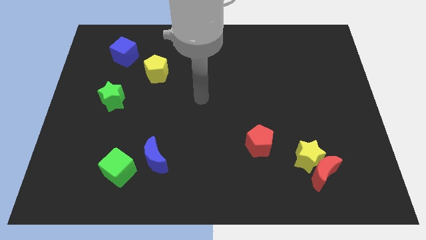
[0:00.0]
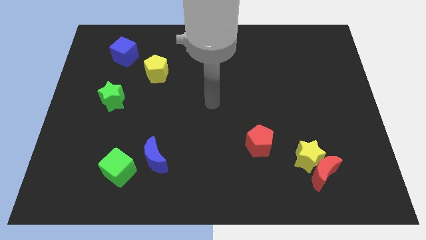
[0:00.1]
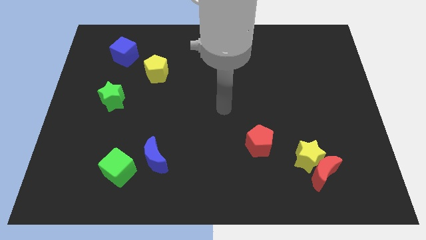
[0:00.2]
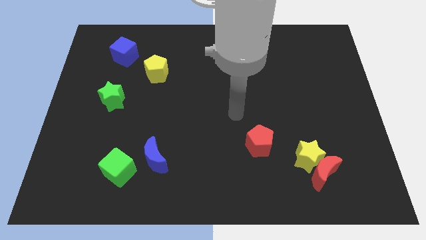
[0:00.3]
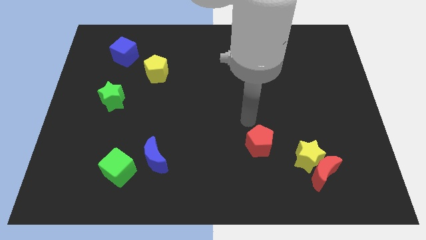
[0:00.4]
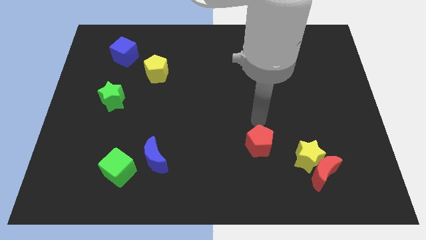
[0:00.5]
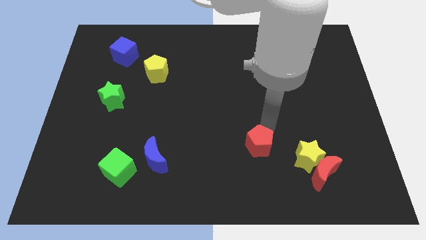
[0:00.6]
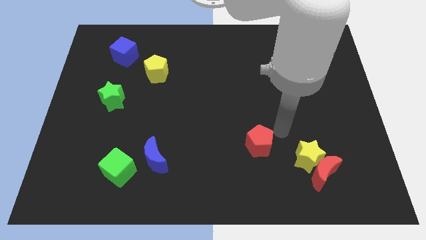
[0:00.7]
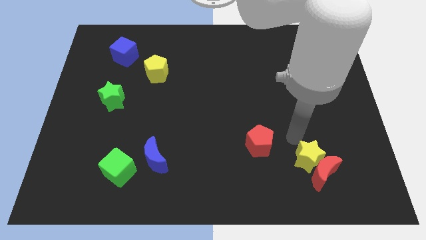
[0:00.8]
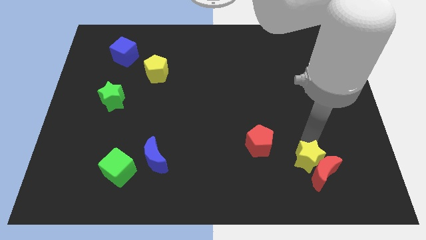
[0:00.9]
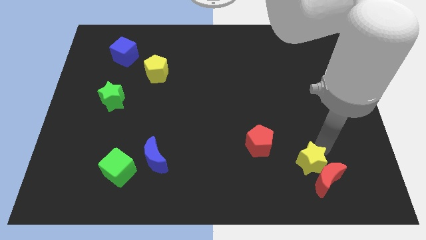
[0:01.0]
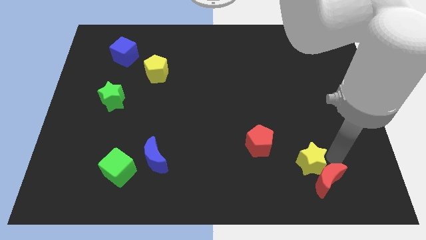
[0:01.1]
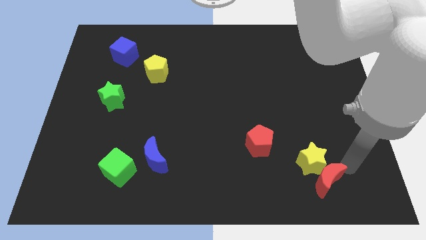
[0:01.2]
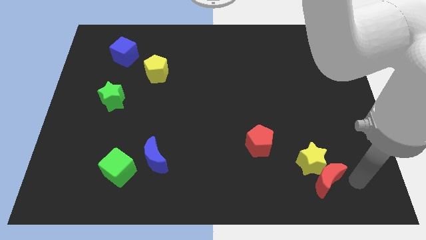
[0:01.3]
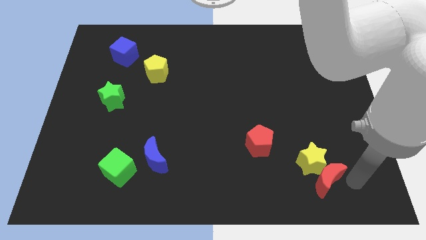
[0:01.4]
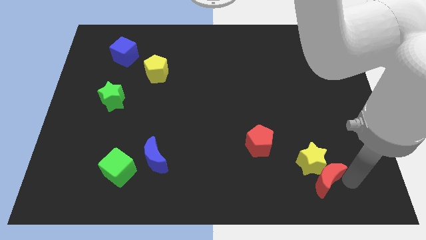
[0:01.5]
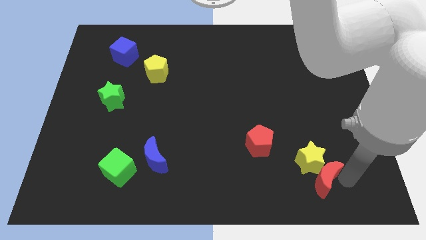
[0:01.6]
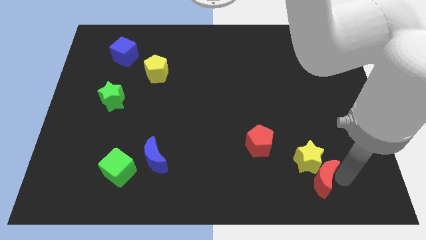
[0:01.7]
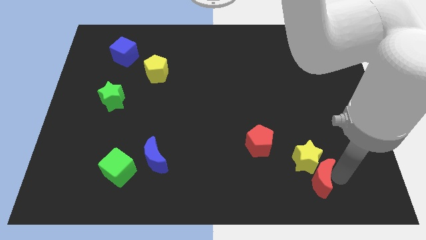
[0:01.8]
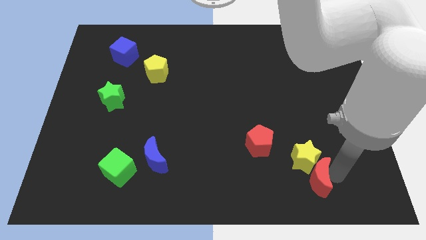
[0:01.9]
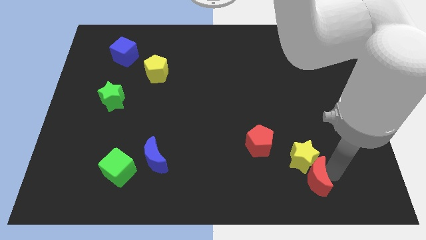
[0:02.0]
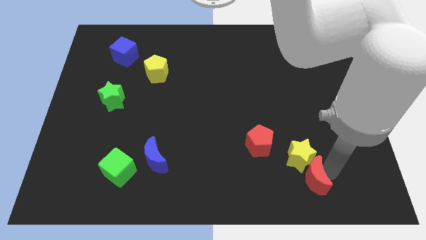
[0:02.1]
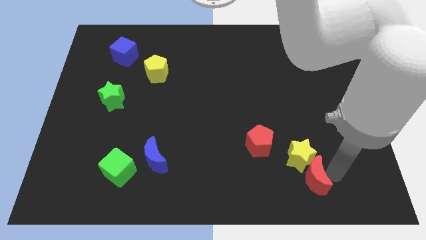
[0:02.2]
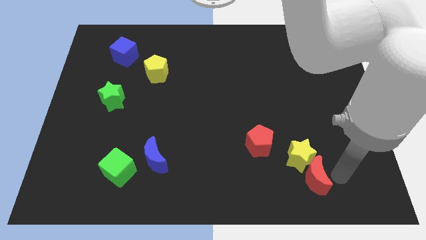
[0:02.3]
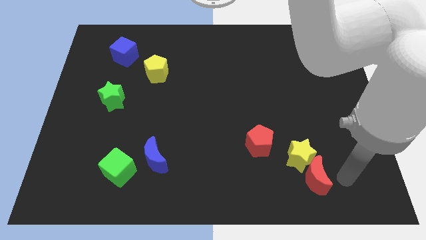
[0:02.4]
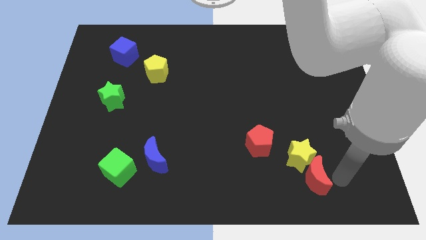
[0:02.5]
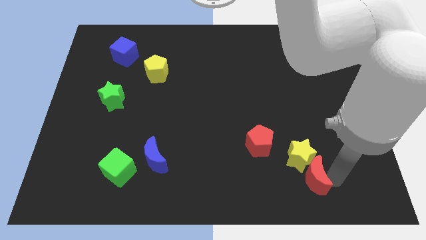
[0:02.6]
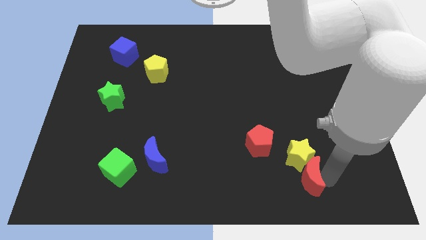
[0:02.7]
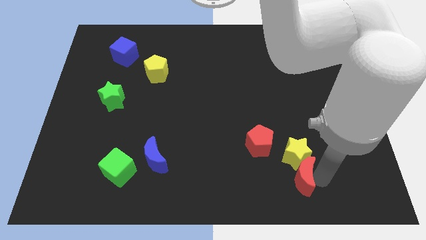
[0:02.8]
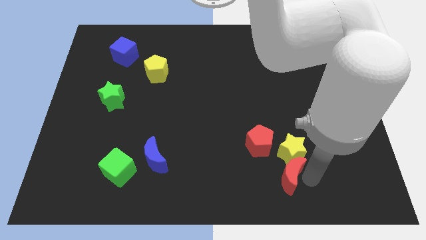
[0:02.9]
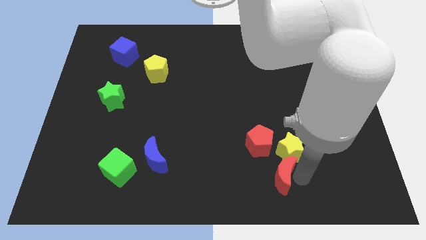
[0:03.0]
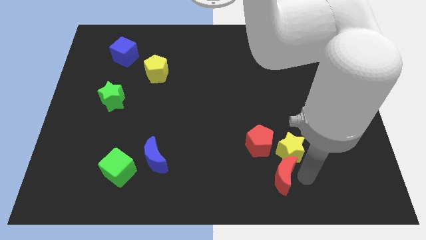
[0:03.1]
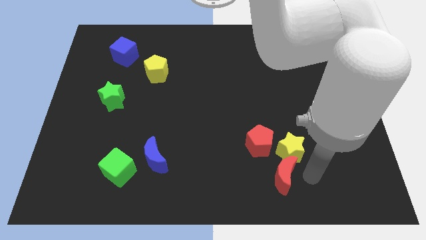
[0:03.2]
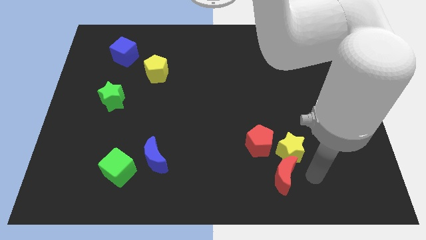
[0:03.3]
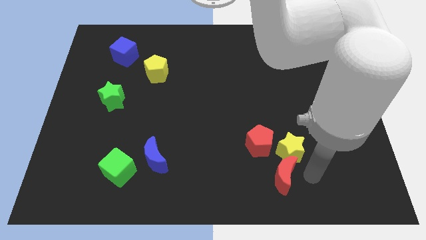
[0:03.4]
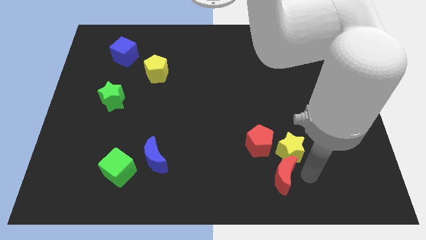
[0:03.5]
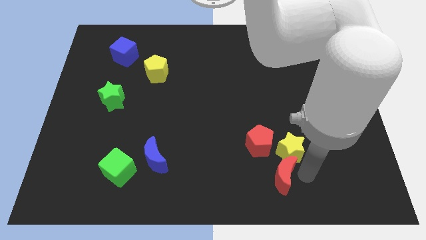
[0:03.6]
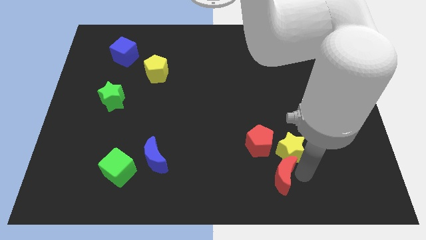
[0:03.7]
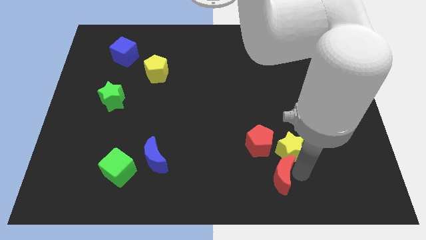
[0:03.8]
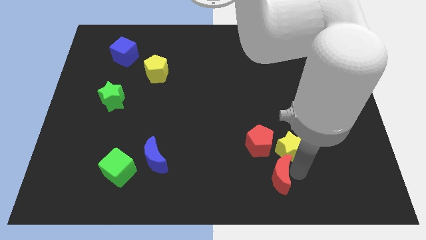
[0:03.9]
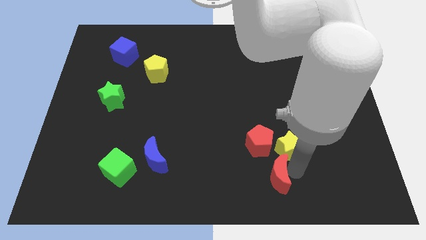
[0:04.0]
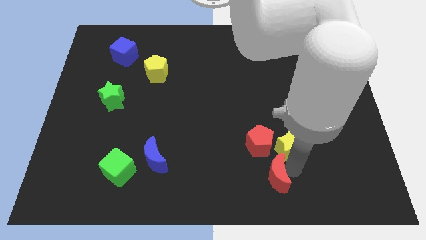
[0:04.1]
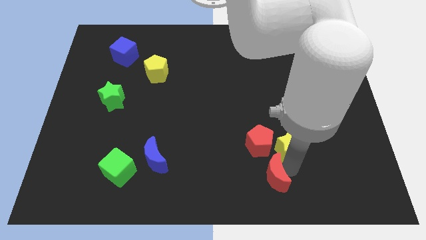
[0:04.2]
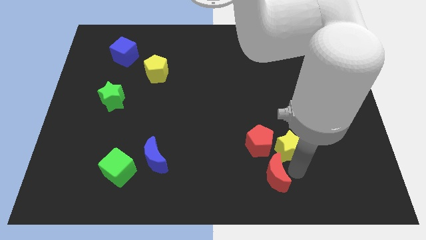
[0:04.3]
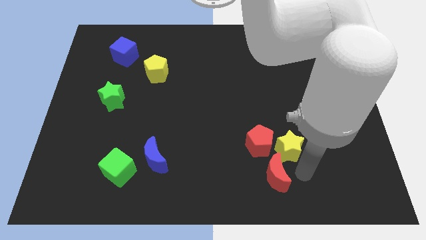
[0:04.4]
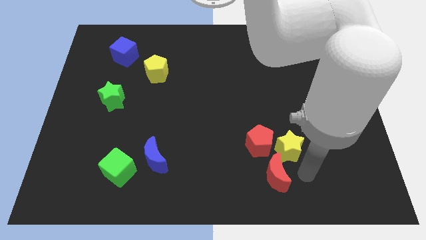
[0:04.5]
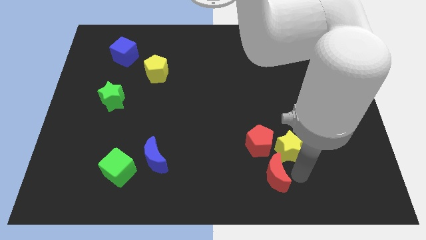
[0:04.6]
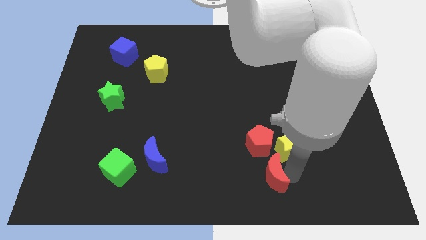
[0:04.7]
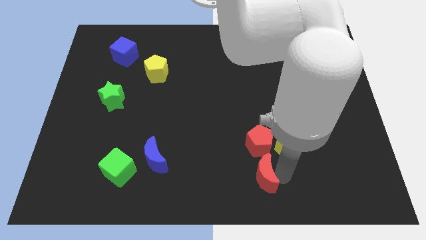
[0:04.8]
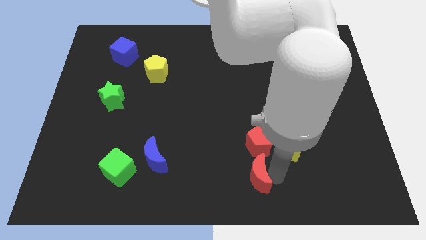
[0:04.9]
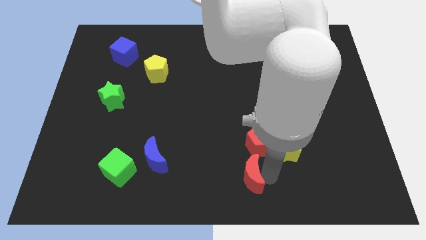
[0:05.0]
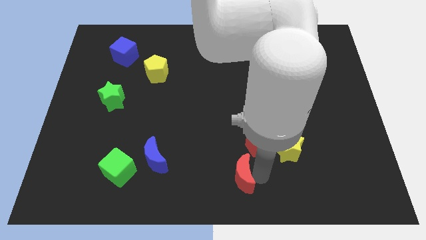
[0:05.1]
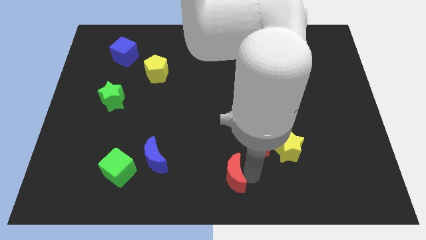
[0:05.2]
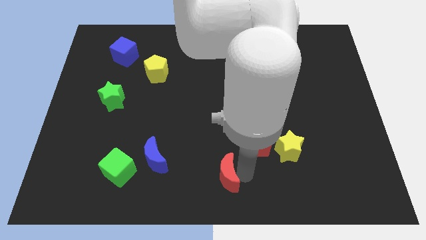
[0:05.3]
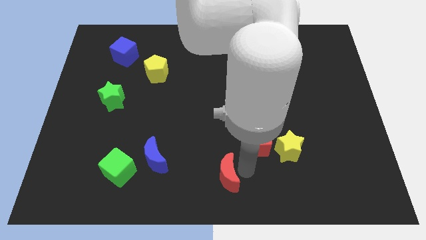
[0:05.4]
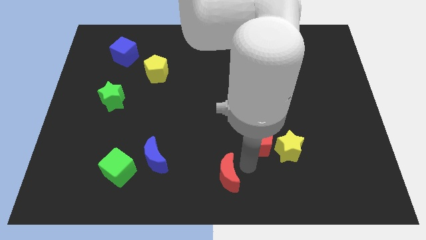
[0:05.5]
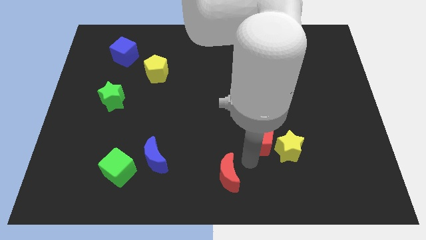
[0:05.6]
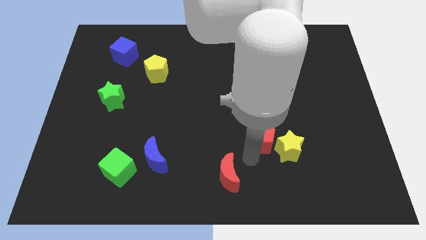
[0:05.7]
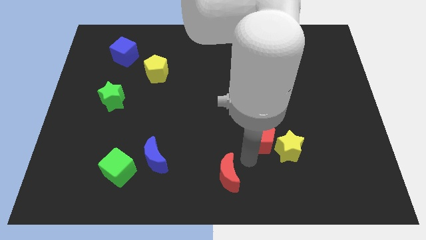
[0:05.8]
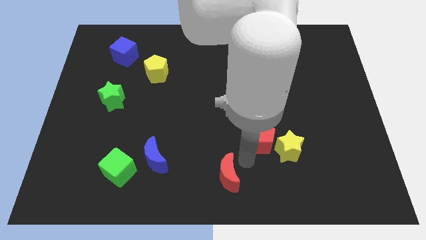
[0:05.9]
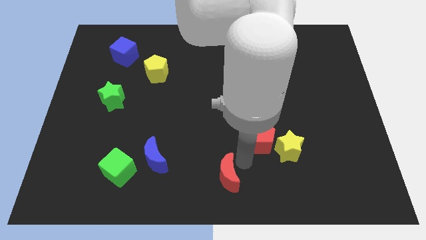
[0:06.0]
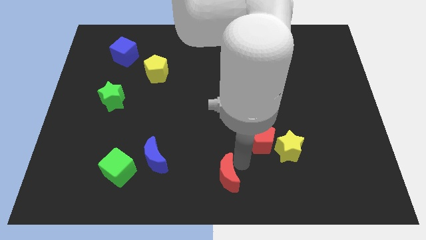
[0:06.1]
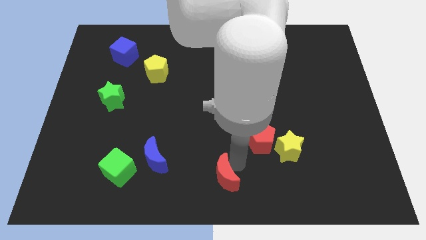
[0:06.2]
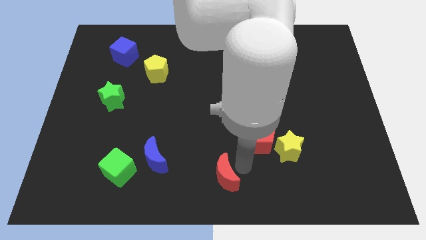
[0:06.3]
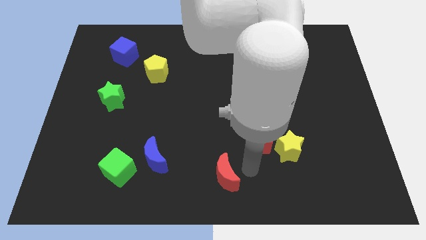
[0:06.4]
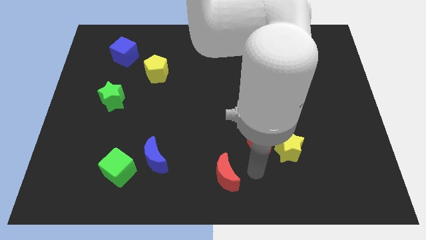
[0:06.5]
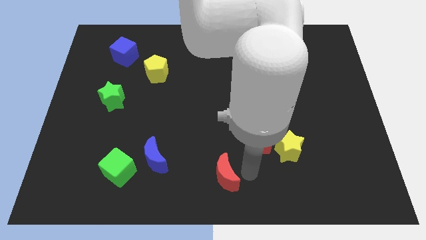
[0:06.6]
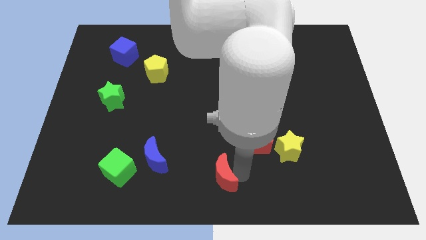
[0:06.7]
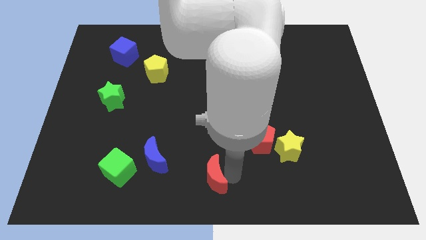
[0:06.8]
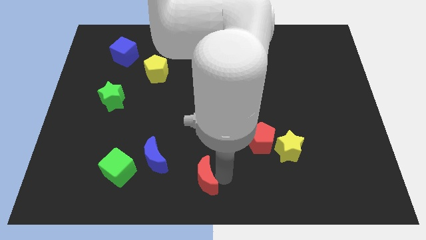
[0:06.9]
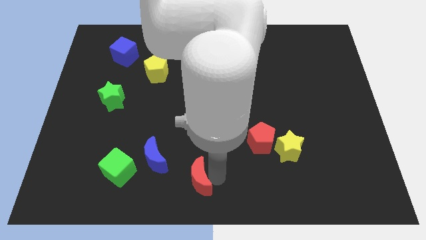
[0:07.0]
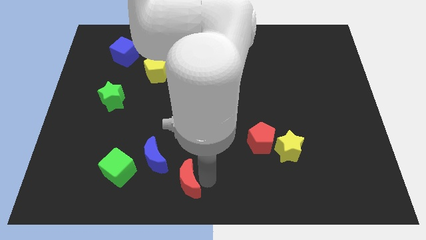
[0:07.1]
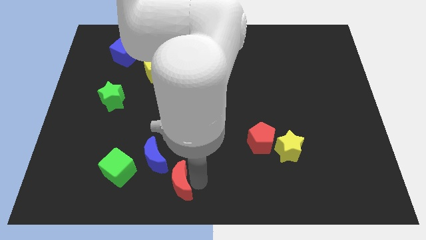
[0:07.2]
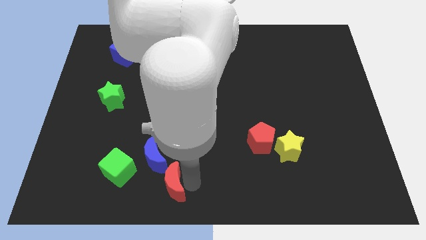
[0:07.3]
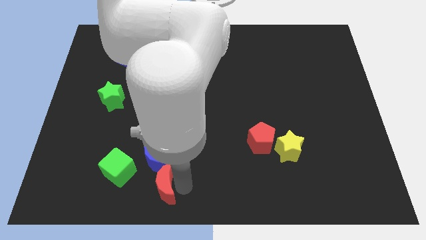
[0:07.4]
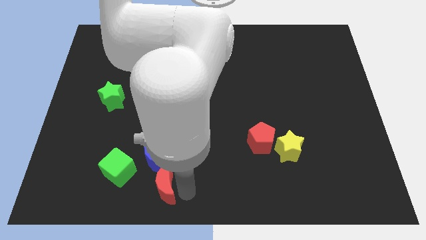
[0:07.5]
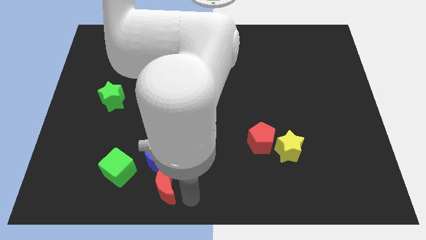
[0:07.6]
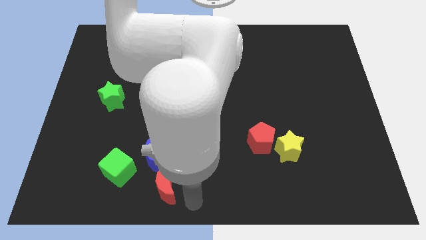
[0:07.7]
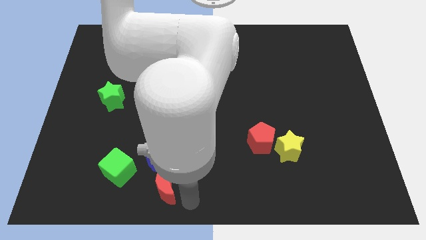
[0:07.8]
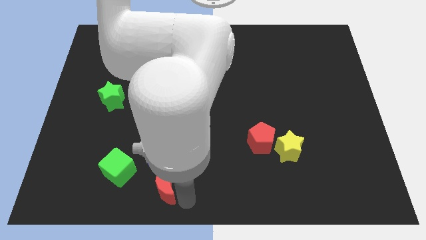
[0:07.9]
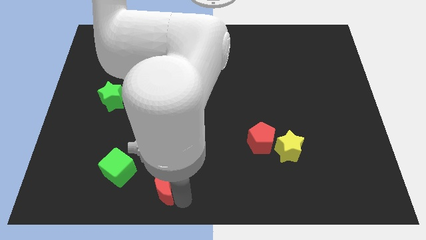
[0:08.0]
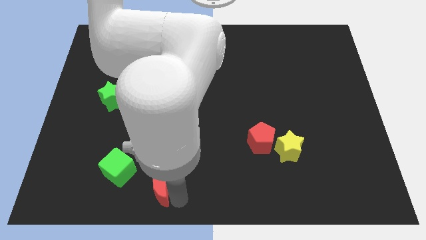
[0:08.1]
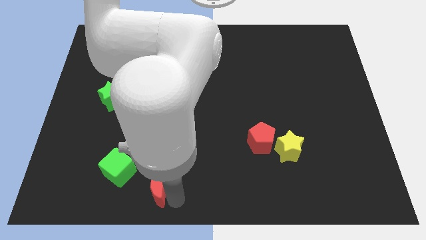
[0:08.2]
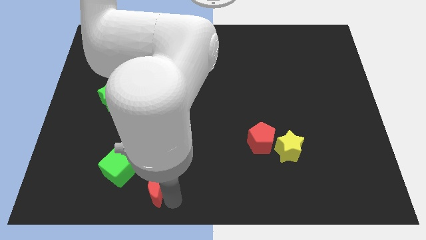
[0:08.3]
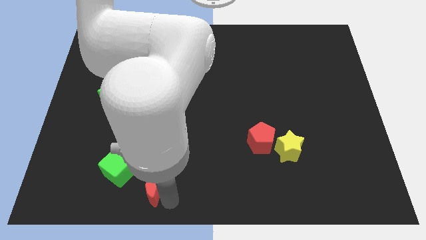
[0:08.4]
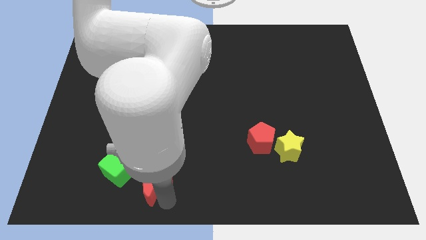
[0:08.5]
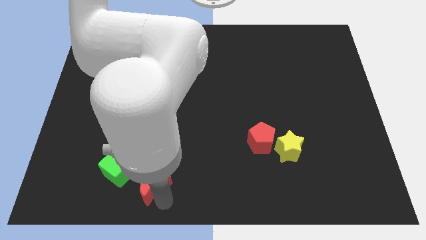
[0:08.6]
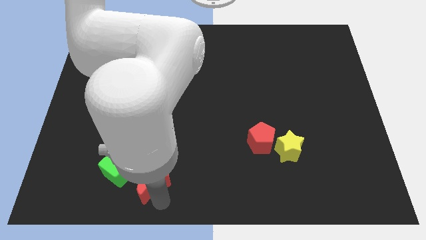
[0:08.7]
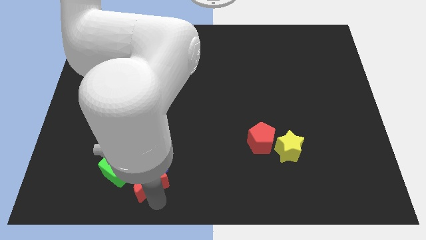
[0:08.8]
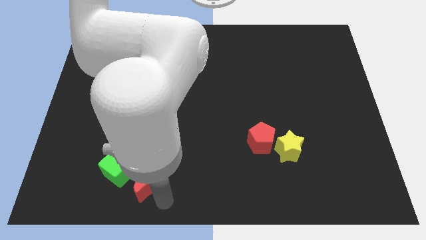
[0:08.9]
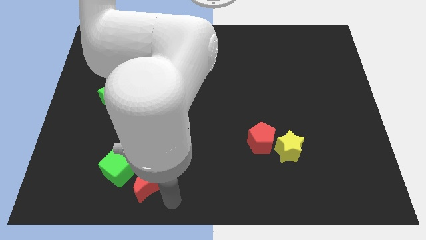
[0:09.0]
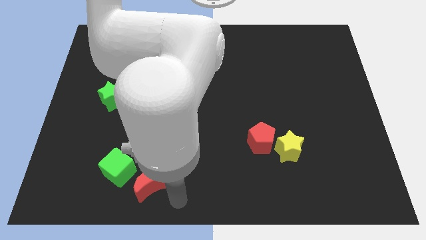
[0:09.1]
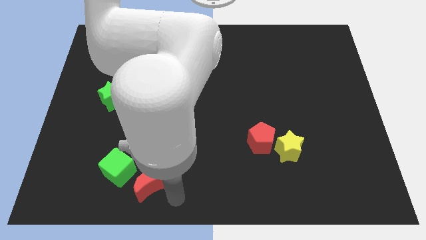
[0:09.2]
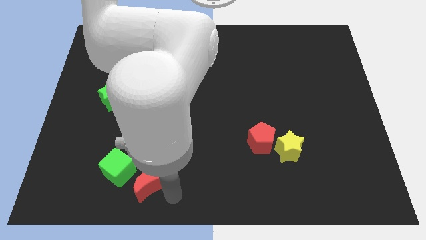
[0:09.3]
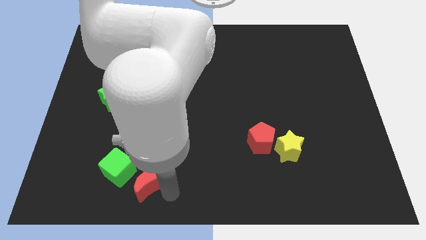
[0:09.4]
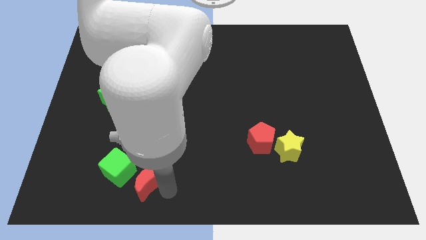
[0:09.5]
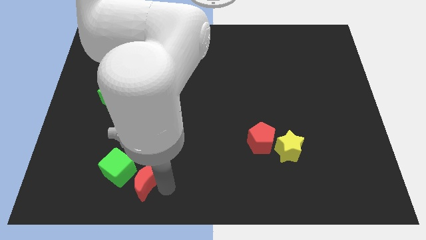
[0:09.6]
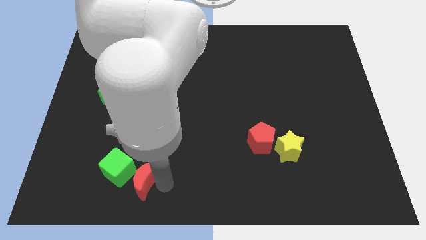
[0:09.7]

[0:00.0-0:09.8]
move the red moon next to the green cube
